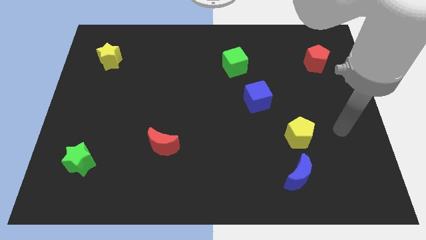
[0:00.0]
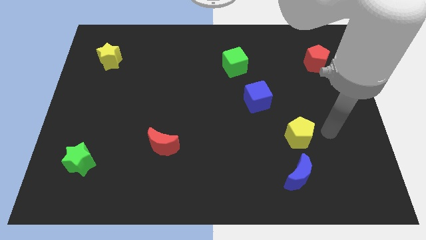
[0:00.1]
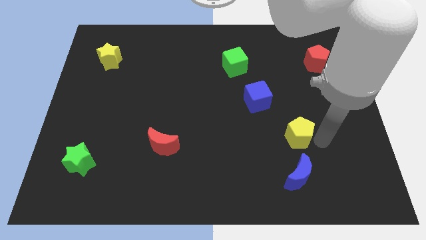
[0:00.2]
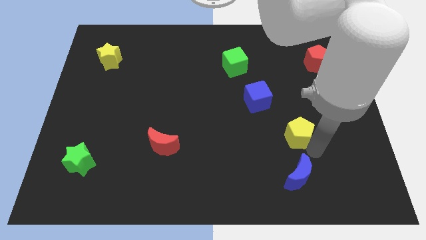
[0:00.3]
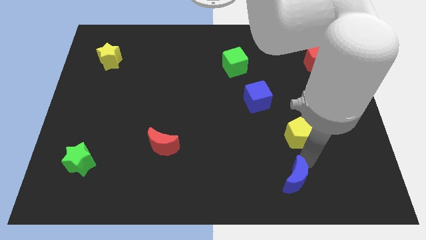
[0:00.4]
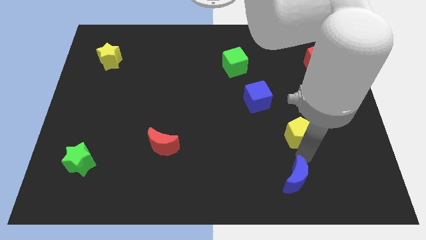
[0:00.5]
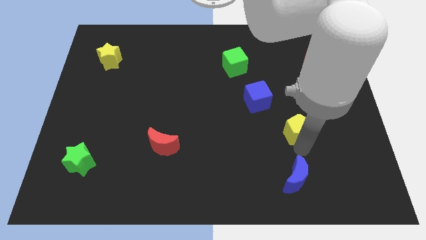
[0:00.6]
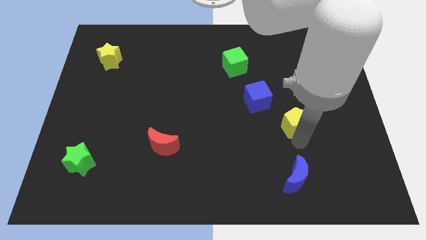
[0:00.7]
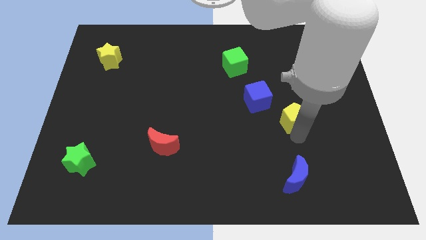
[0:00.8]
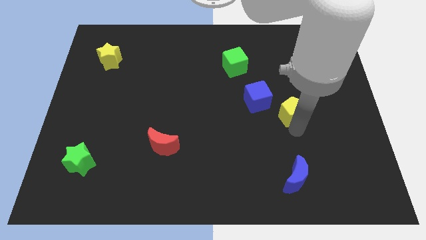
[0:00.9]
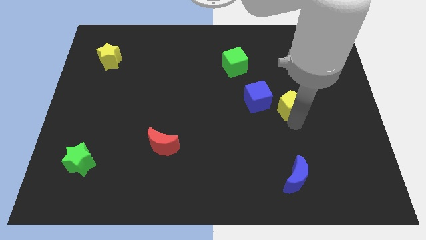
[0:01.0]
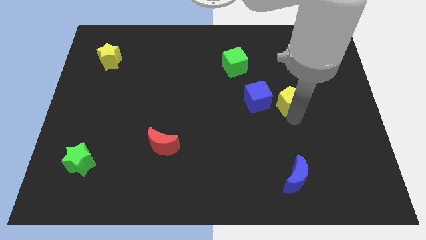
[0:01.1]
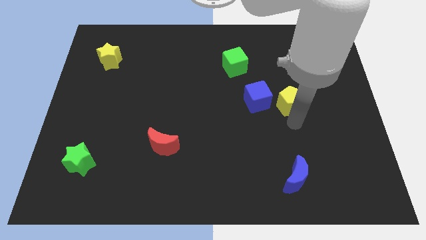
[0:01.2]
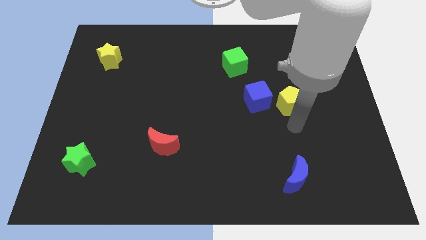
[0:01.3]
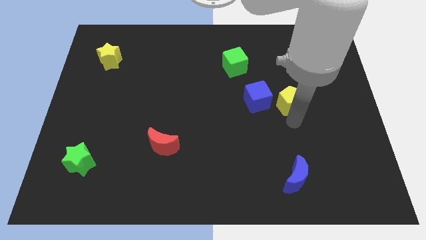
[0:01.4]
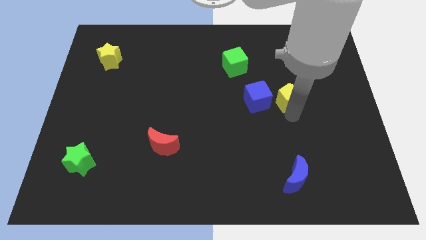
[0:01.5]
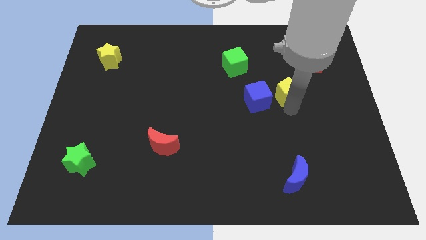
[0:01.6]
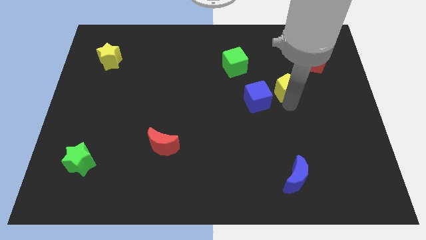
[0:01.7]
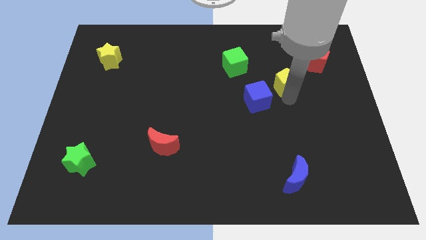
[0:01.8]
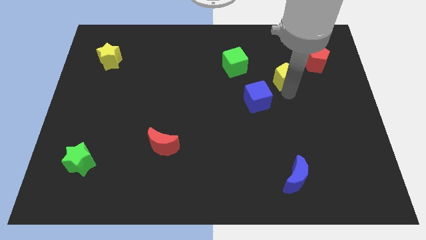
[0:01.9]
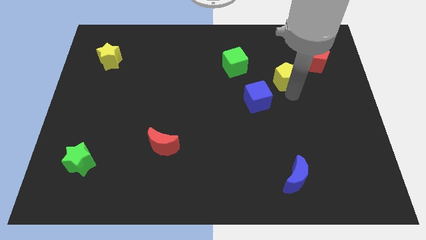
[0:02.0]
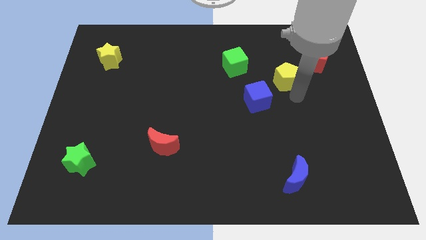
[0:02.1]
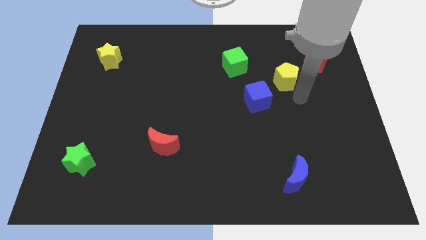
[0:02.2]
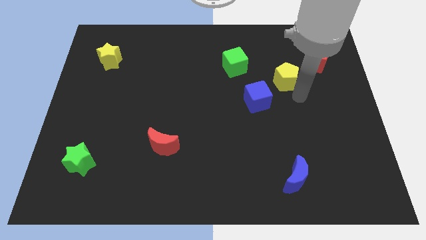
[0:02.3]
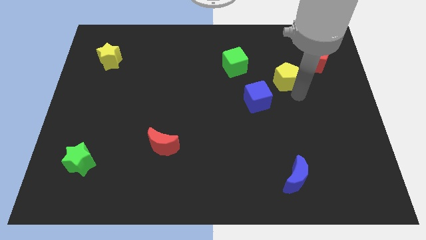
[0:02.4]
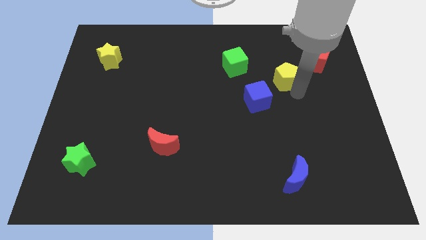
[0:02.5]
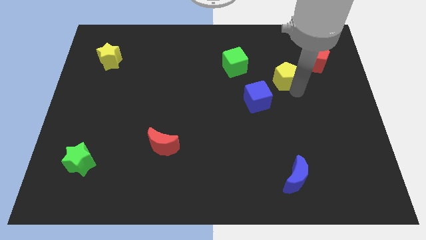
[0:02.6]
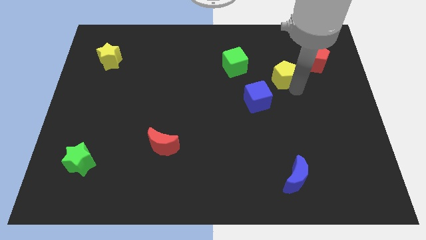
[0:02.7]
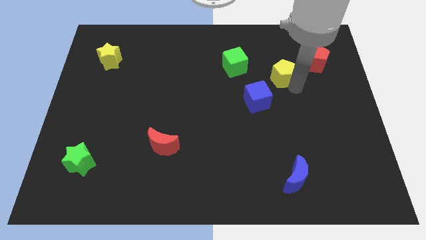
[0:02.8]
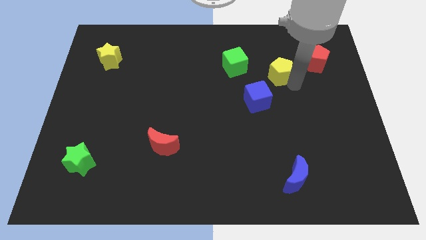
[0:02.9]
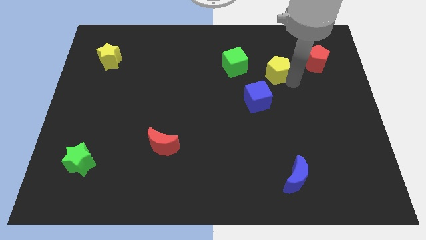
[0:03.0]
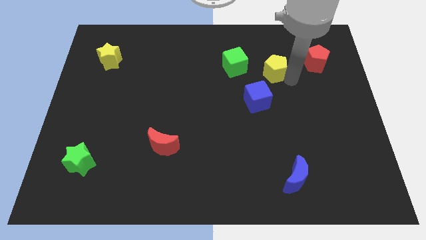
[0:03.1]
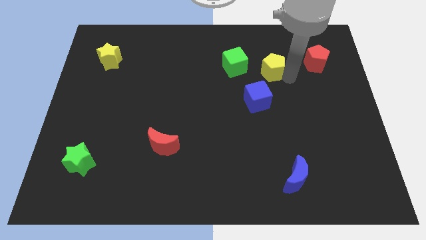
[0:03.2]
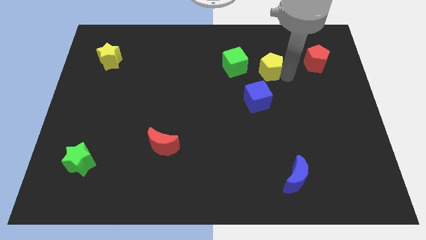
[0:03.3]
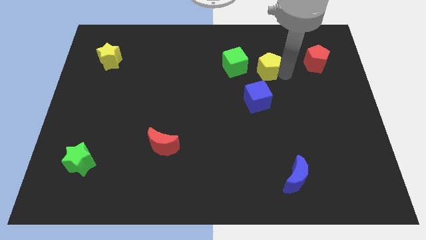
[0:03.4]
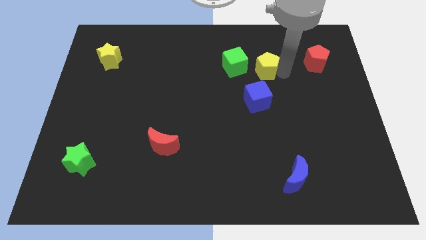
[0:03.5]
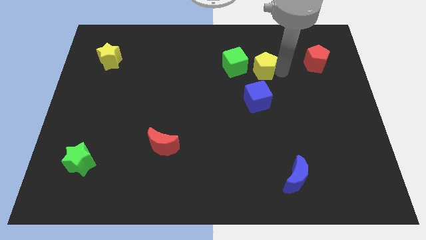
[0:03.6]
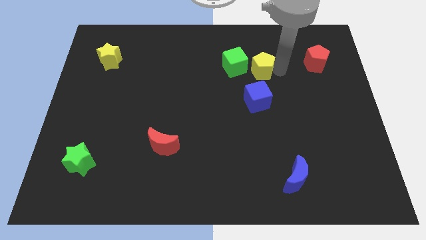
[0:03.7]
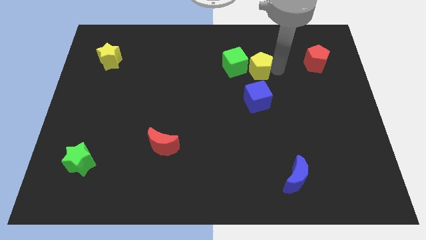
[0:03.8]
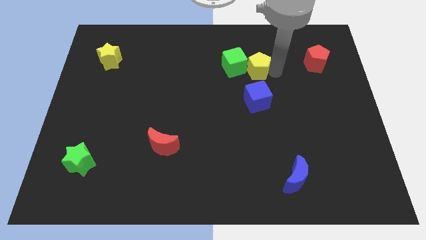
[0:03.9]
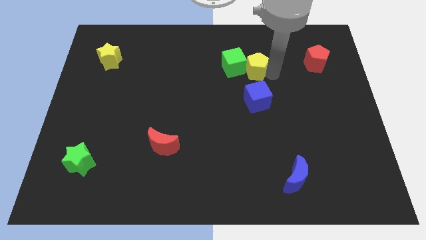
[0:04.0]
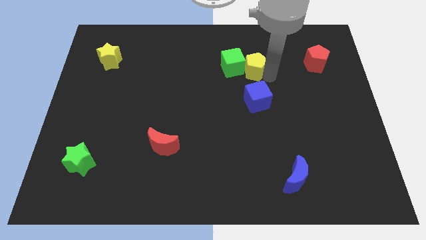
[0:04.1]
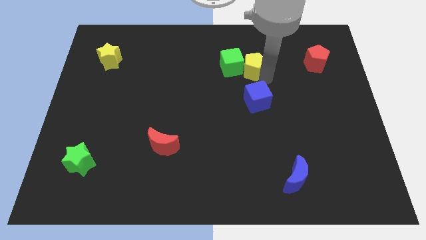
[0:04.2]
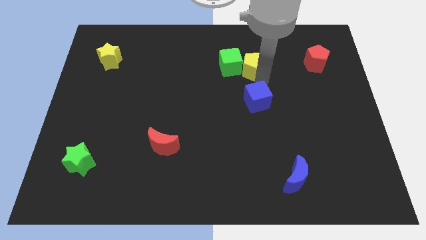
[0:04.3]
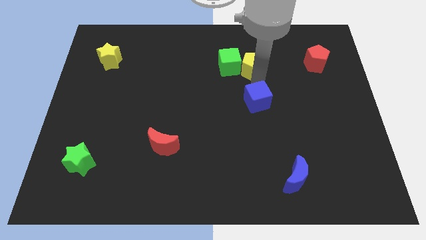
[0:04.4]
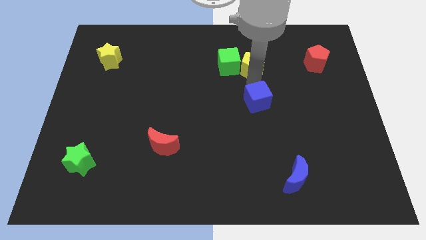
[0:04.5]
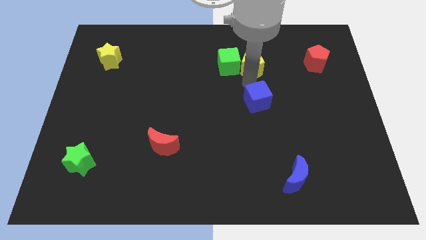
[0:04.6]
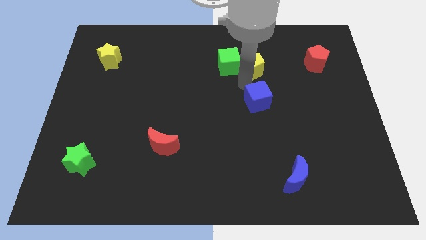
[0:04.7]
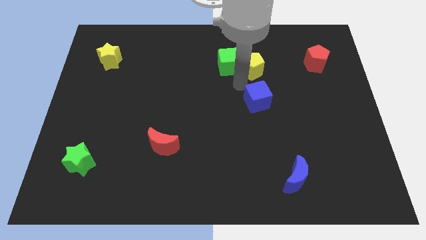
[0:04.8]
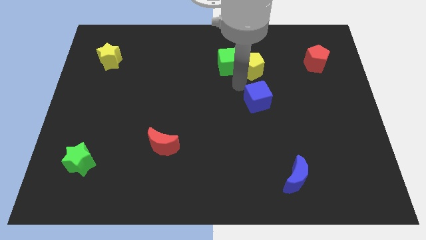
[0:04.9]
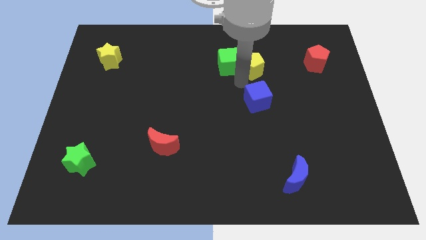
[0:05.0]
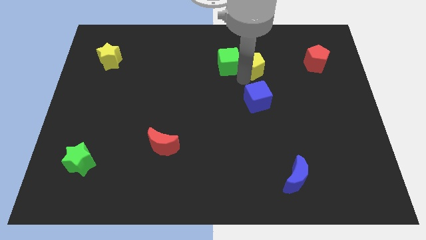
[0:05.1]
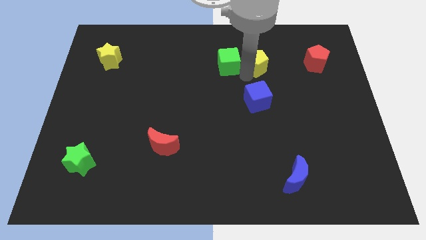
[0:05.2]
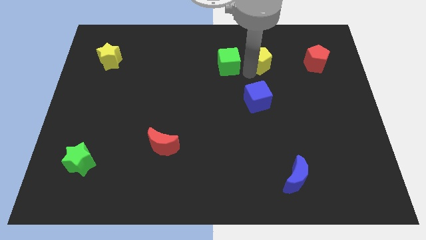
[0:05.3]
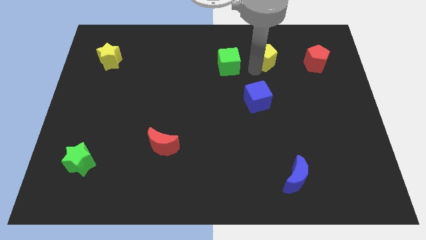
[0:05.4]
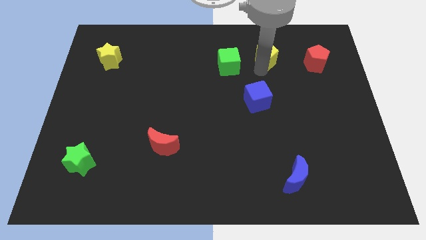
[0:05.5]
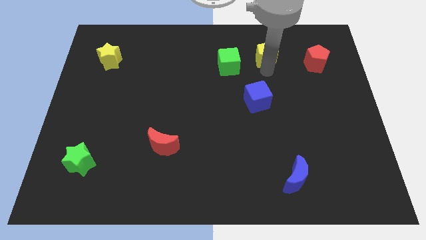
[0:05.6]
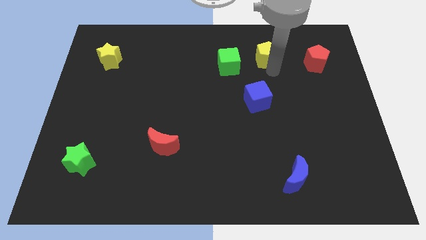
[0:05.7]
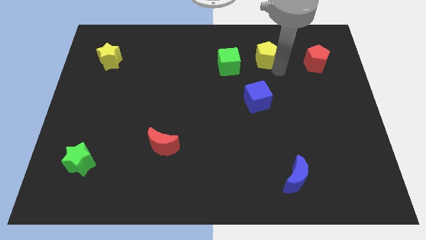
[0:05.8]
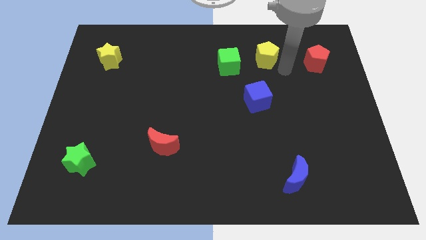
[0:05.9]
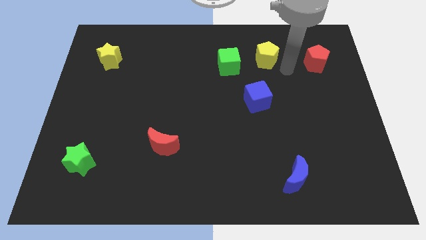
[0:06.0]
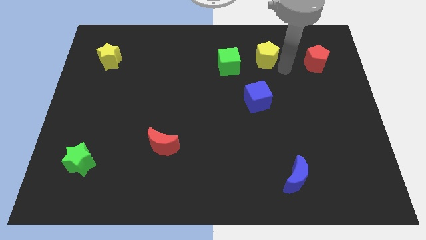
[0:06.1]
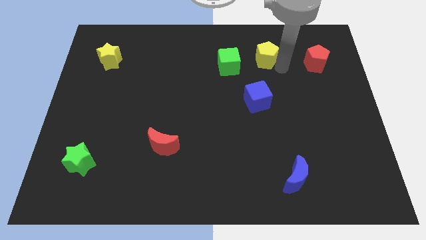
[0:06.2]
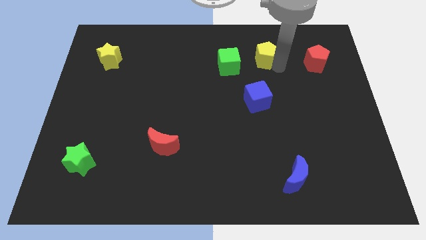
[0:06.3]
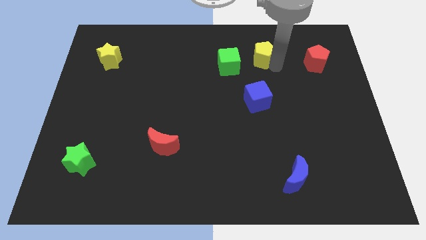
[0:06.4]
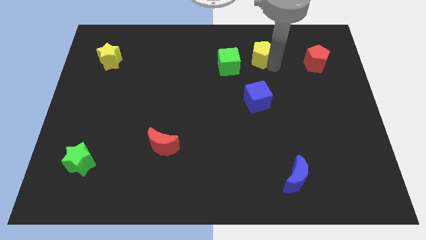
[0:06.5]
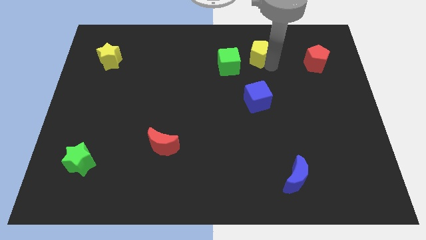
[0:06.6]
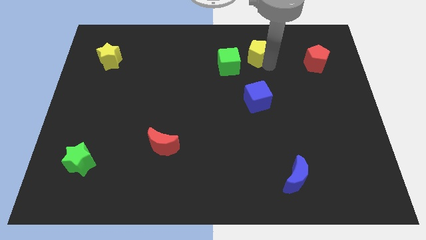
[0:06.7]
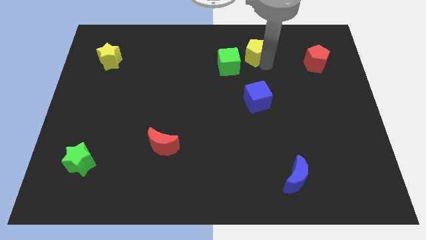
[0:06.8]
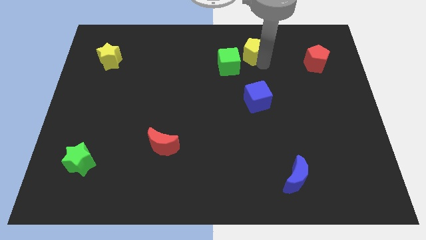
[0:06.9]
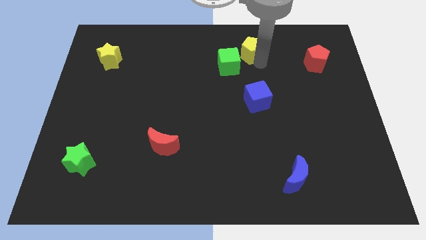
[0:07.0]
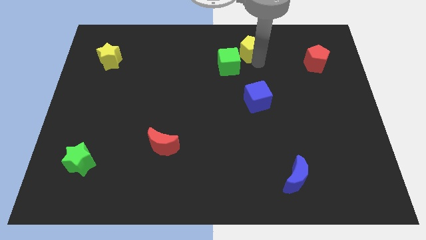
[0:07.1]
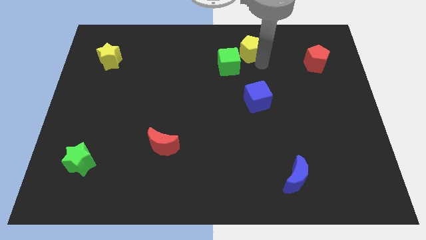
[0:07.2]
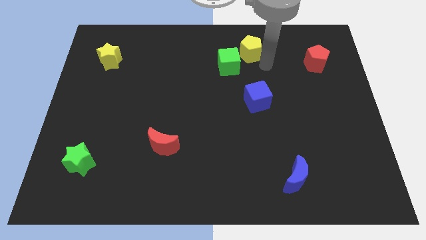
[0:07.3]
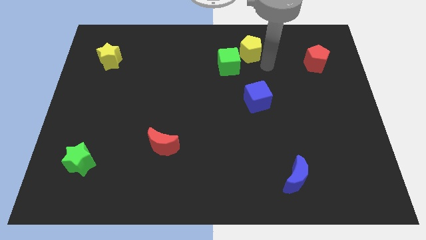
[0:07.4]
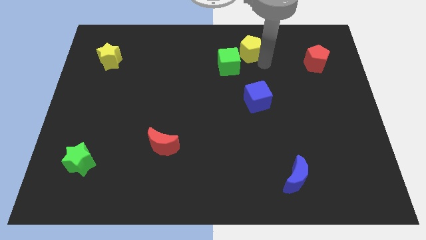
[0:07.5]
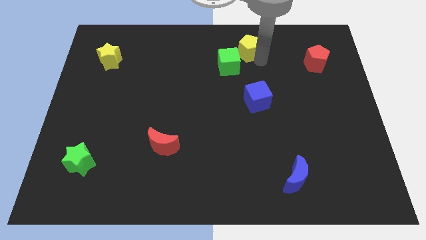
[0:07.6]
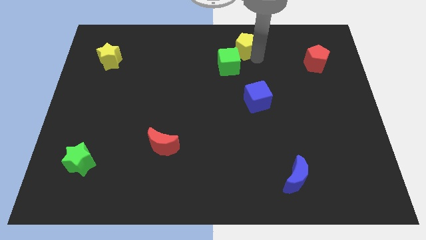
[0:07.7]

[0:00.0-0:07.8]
slide the yellow pentagon to the top side
